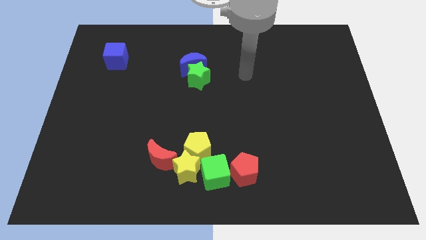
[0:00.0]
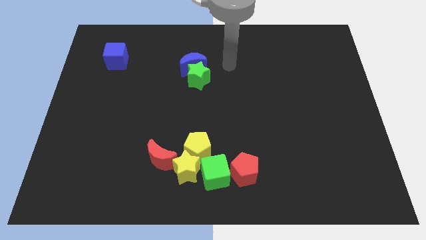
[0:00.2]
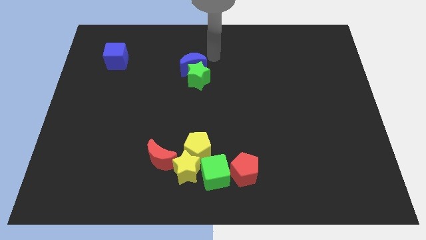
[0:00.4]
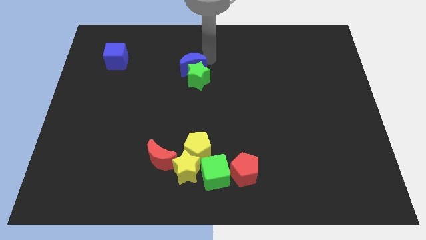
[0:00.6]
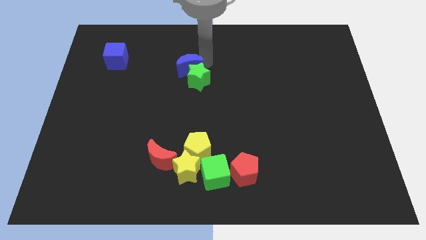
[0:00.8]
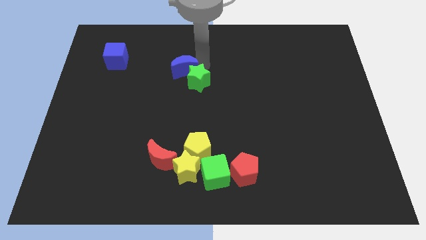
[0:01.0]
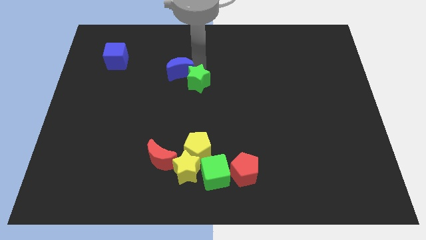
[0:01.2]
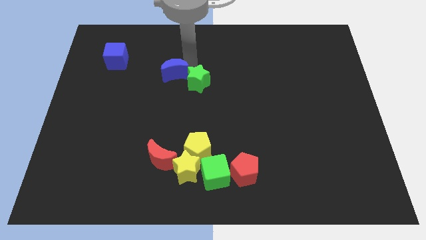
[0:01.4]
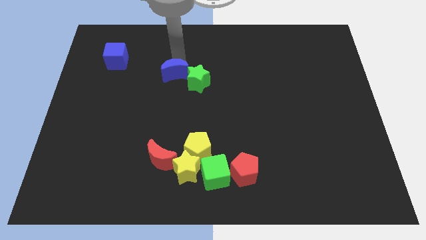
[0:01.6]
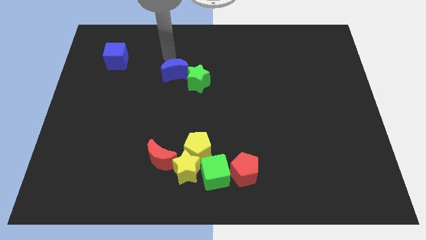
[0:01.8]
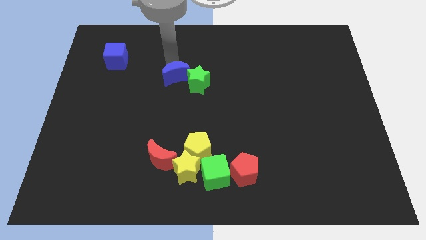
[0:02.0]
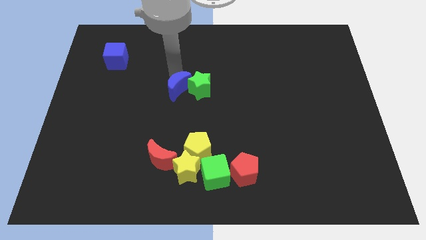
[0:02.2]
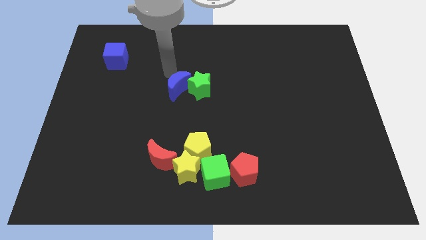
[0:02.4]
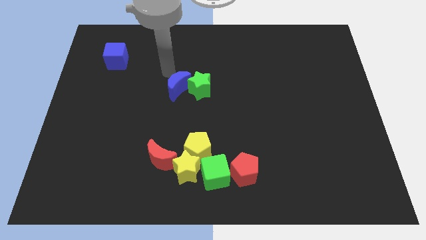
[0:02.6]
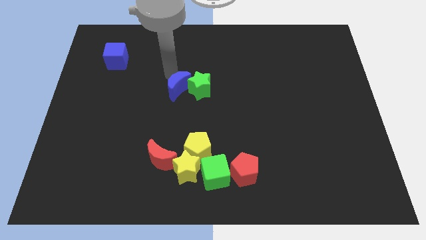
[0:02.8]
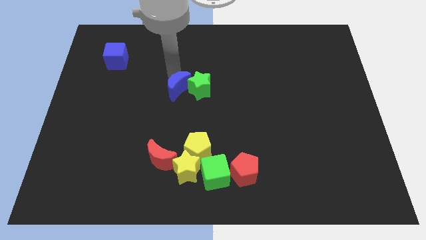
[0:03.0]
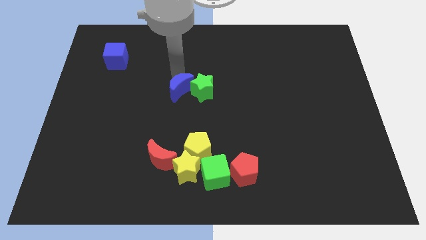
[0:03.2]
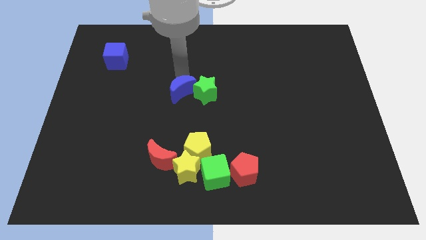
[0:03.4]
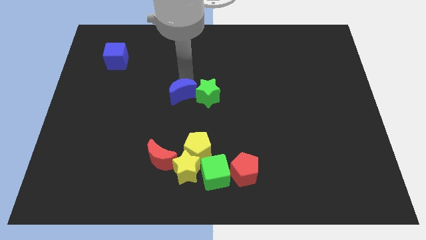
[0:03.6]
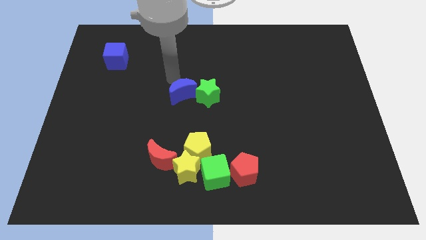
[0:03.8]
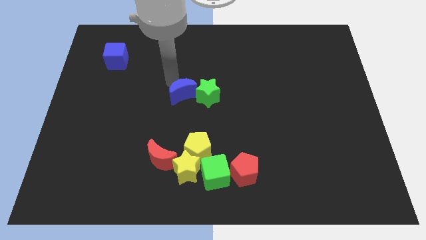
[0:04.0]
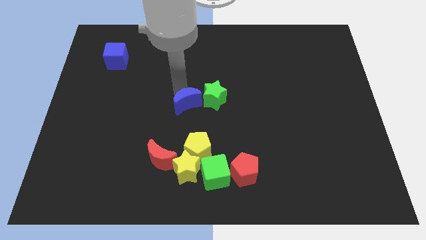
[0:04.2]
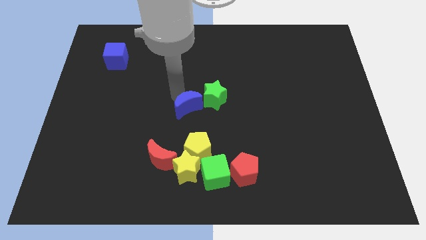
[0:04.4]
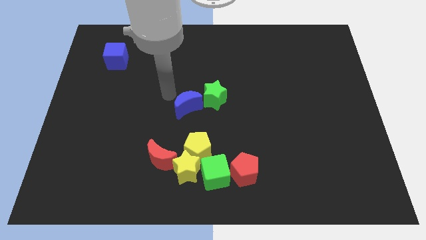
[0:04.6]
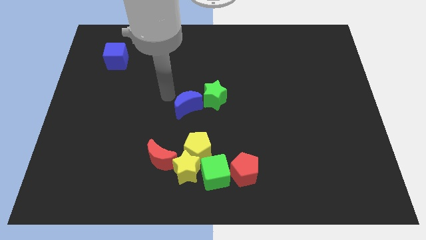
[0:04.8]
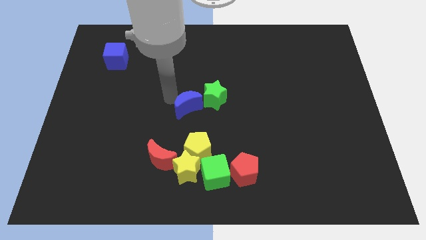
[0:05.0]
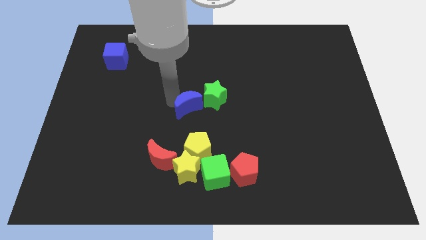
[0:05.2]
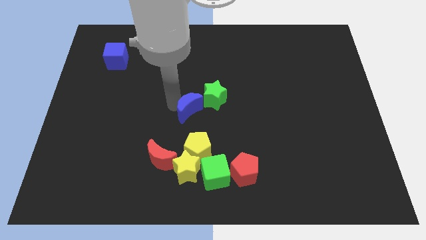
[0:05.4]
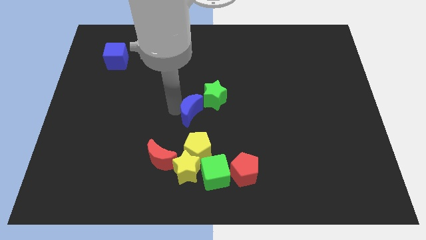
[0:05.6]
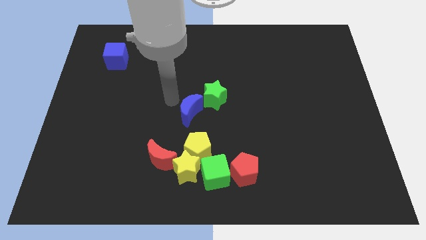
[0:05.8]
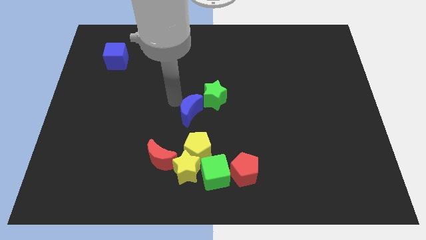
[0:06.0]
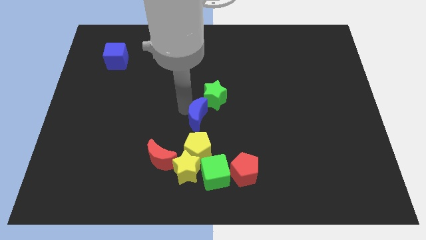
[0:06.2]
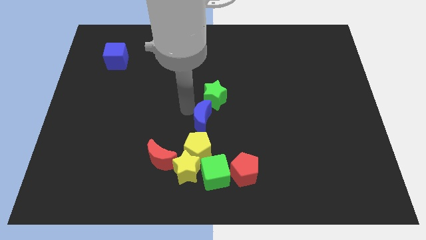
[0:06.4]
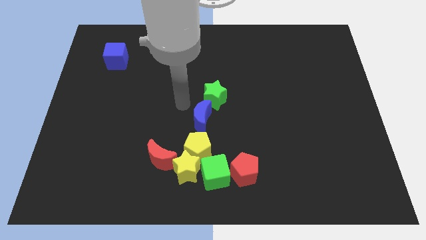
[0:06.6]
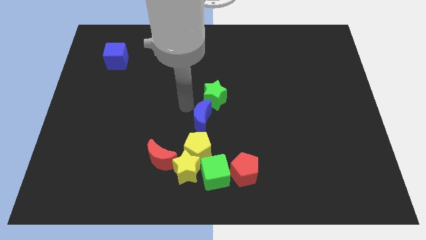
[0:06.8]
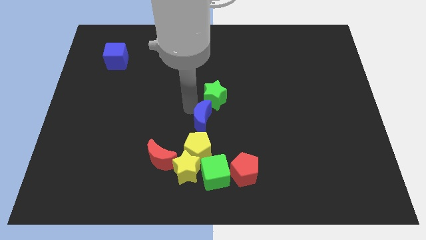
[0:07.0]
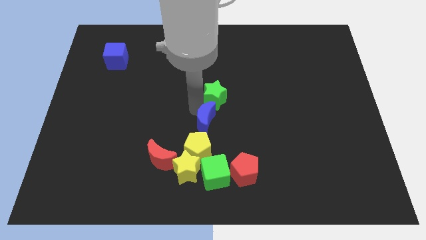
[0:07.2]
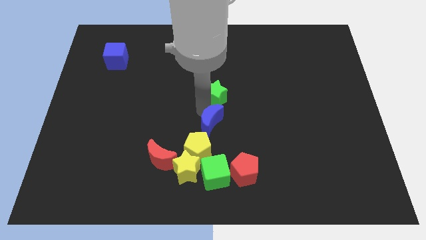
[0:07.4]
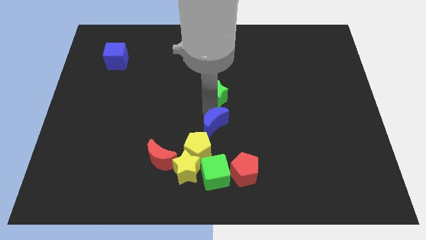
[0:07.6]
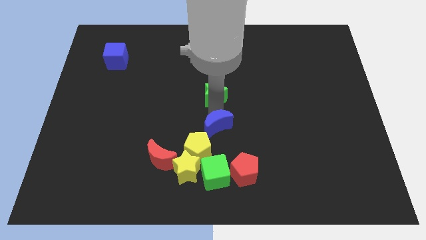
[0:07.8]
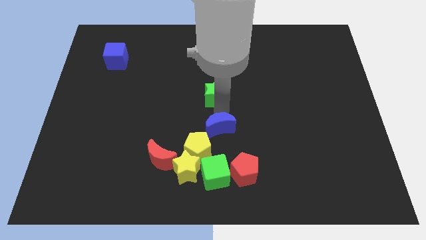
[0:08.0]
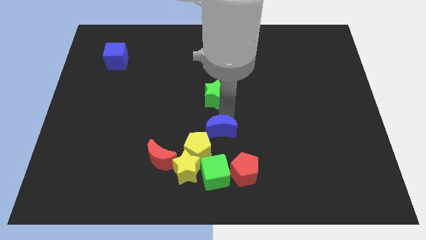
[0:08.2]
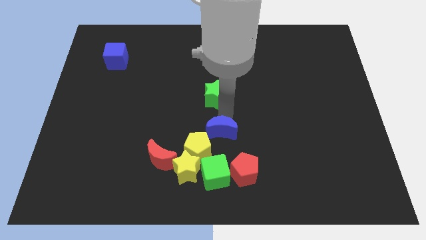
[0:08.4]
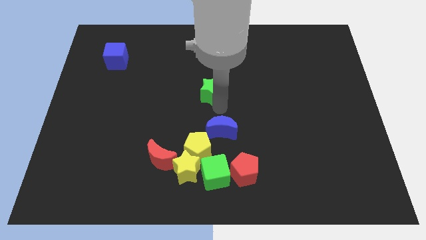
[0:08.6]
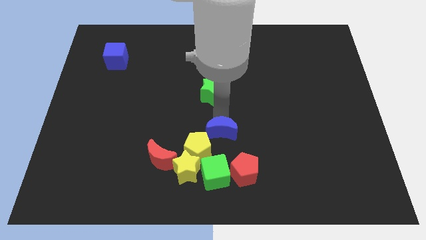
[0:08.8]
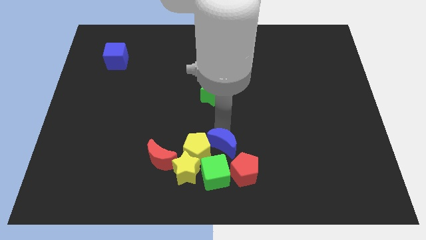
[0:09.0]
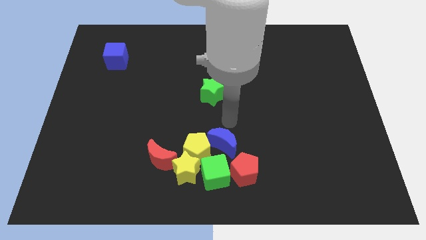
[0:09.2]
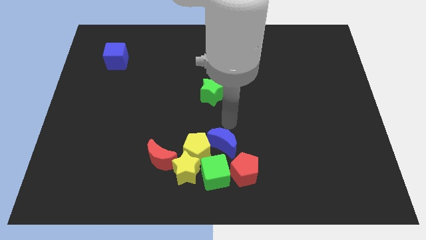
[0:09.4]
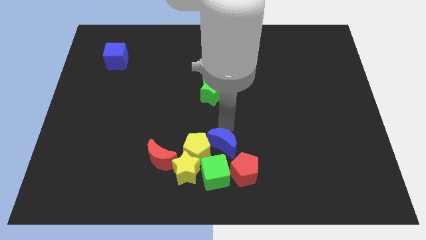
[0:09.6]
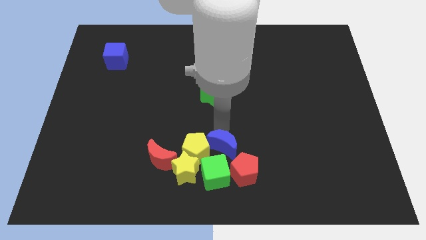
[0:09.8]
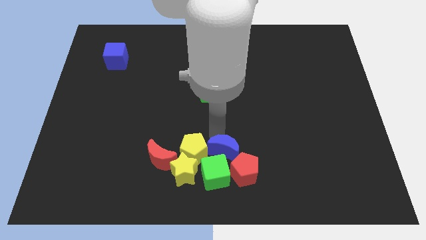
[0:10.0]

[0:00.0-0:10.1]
put the blue moon to the green cube

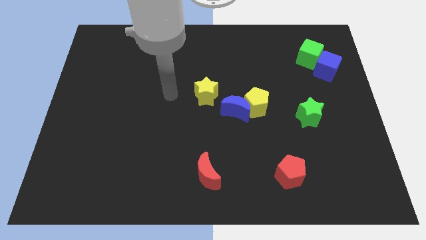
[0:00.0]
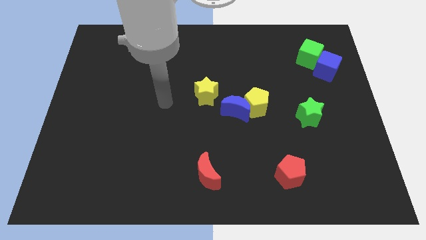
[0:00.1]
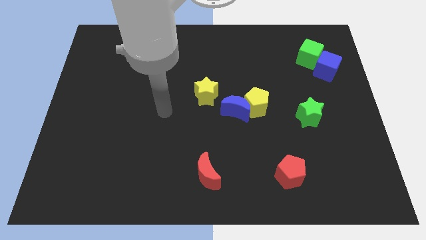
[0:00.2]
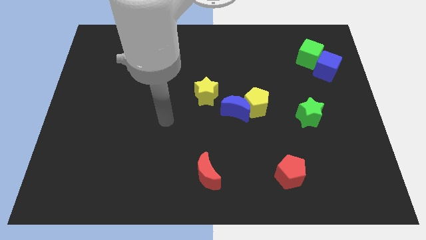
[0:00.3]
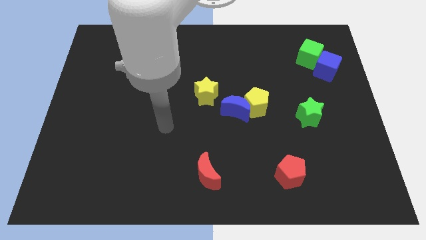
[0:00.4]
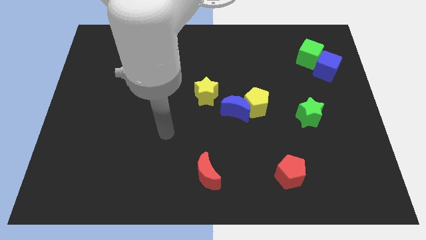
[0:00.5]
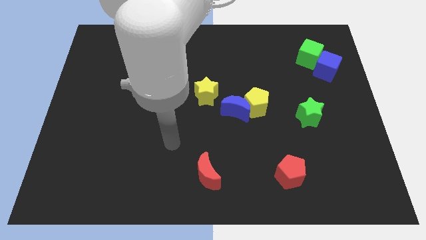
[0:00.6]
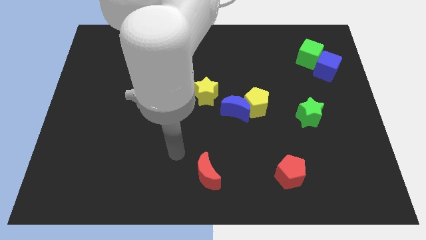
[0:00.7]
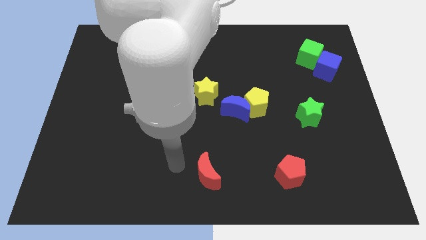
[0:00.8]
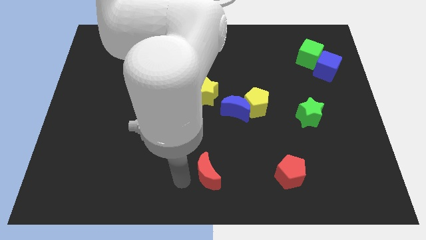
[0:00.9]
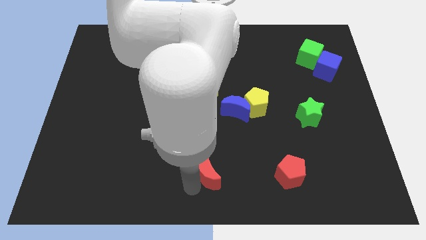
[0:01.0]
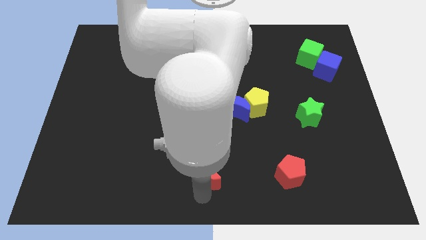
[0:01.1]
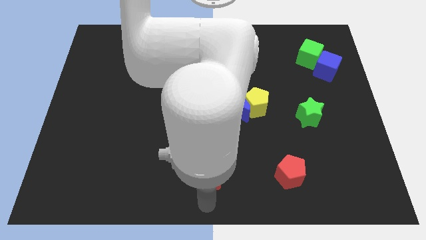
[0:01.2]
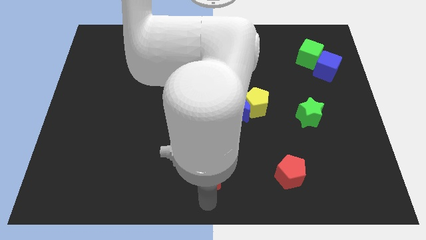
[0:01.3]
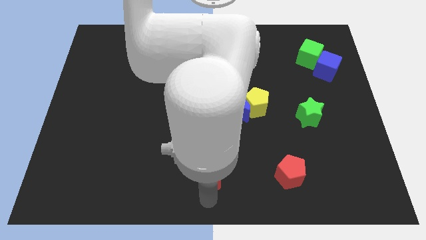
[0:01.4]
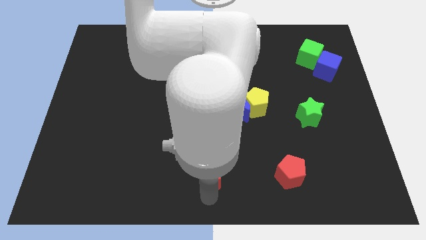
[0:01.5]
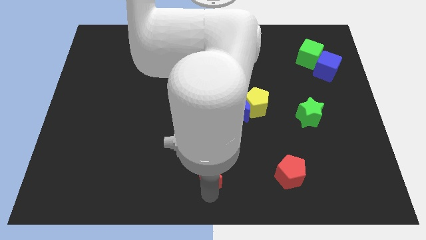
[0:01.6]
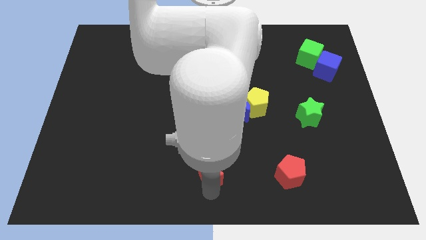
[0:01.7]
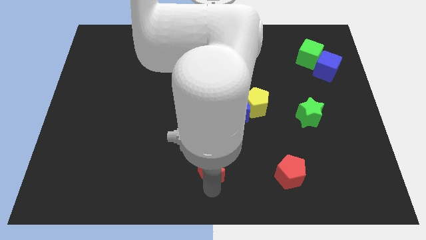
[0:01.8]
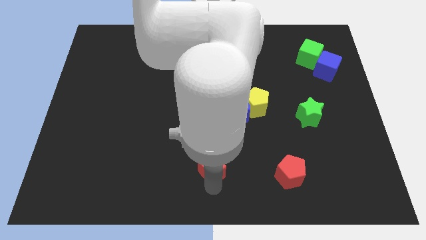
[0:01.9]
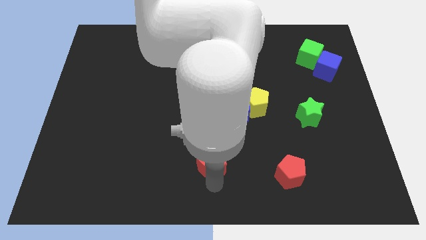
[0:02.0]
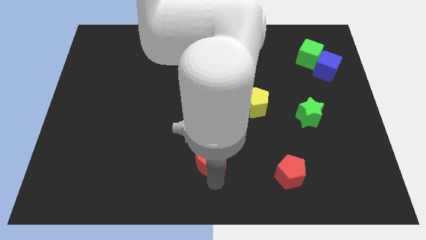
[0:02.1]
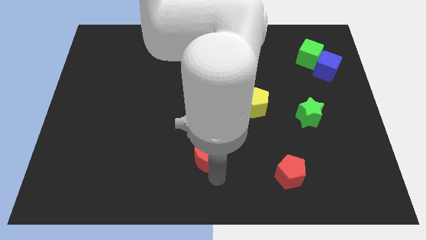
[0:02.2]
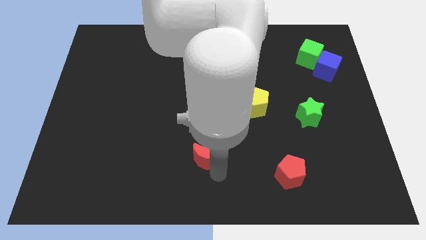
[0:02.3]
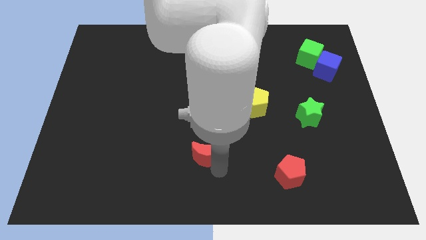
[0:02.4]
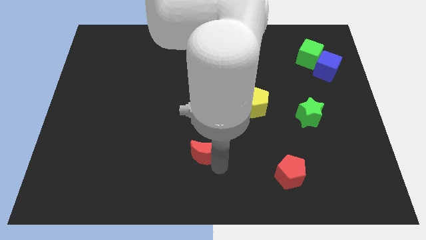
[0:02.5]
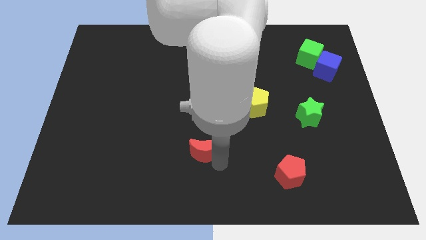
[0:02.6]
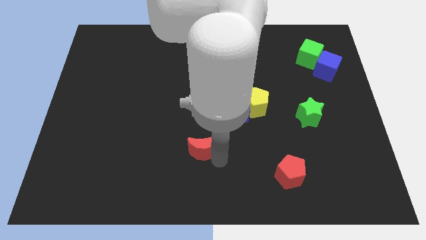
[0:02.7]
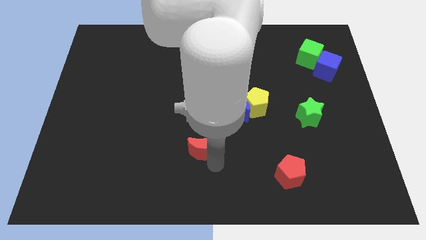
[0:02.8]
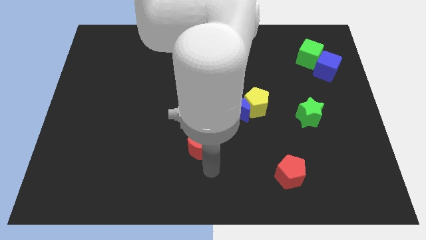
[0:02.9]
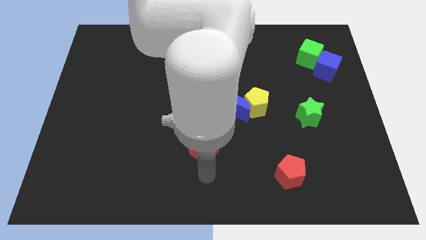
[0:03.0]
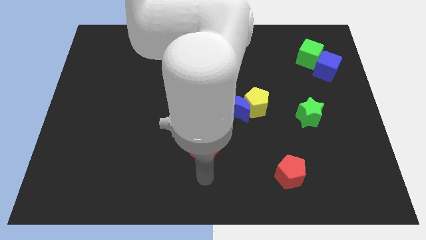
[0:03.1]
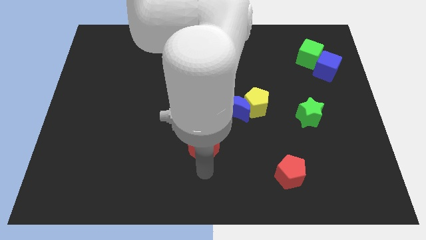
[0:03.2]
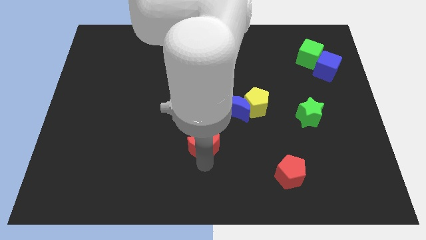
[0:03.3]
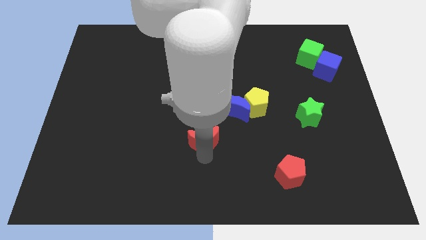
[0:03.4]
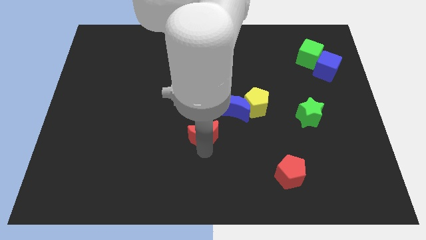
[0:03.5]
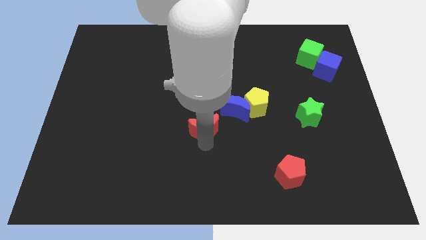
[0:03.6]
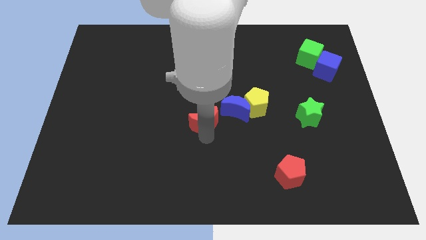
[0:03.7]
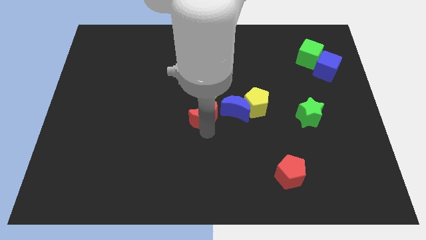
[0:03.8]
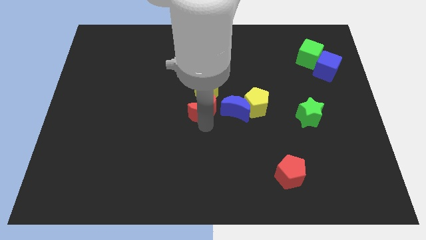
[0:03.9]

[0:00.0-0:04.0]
slide the red moon close to the yellow star
